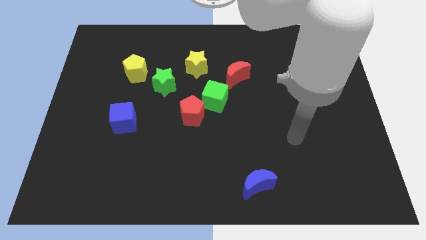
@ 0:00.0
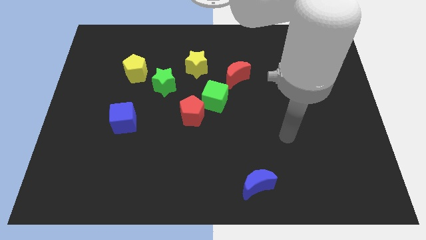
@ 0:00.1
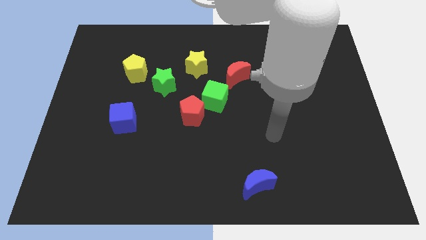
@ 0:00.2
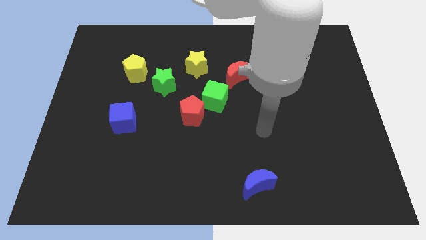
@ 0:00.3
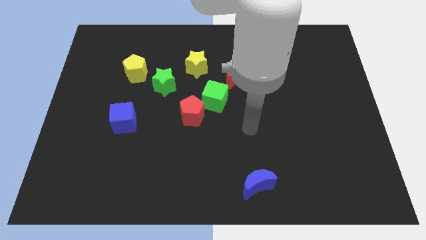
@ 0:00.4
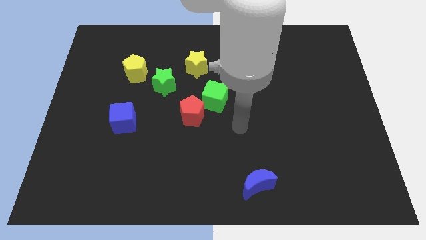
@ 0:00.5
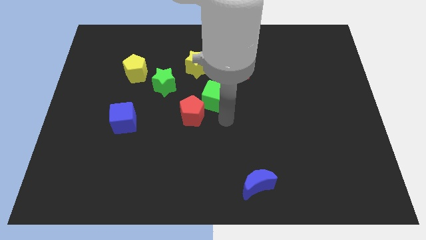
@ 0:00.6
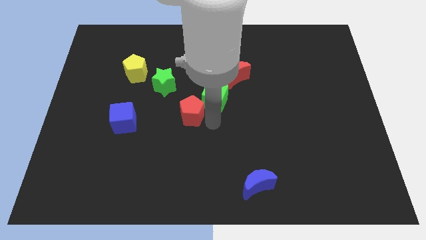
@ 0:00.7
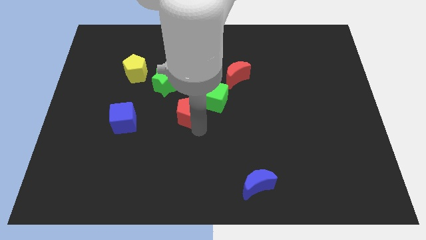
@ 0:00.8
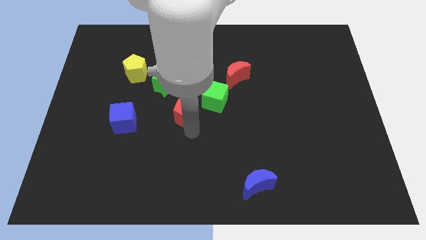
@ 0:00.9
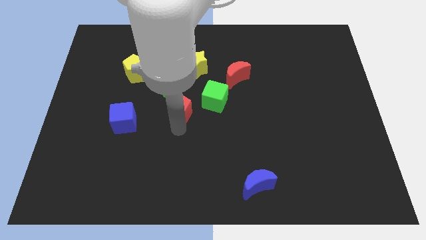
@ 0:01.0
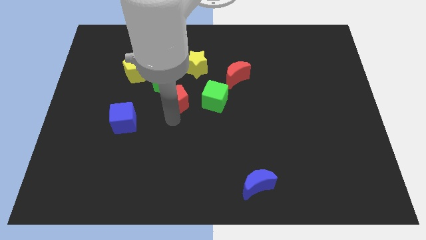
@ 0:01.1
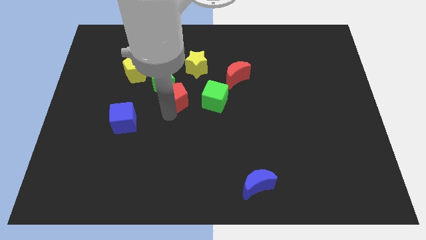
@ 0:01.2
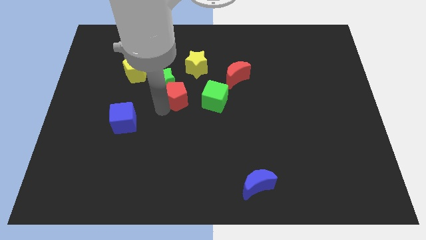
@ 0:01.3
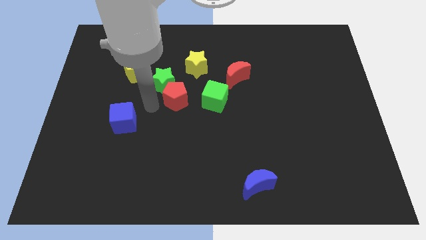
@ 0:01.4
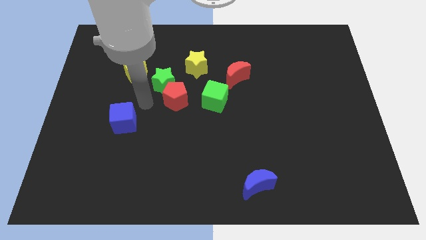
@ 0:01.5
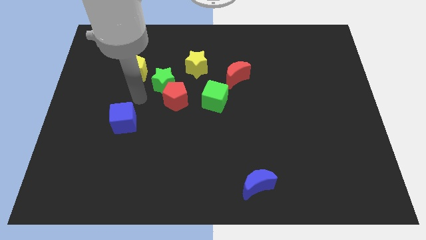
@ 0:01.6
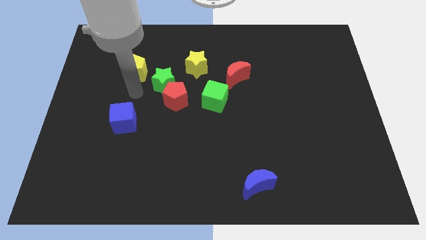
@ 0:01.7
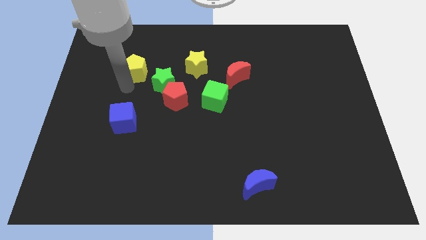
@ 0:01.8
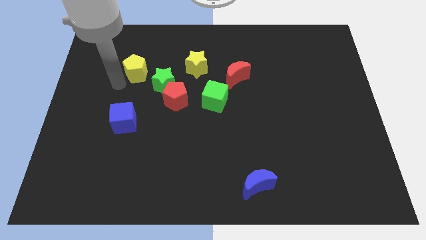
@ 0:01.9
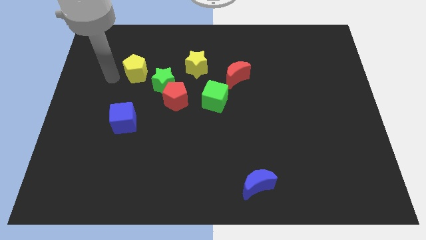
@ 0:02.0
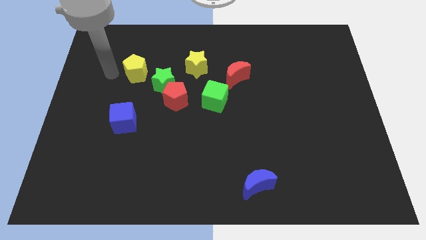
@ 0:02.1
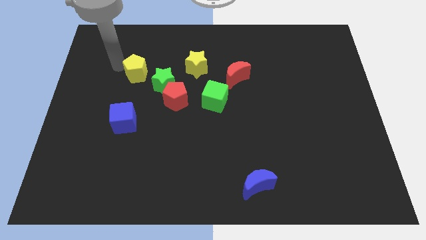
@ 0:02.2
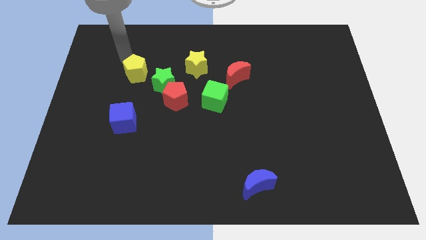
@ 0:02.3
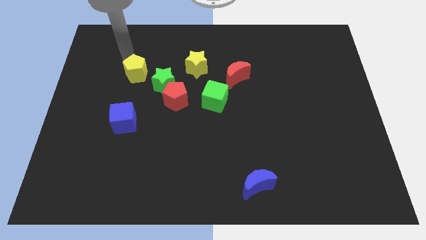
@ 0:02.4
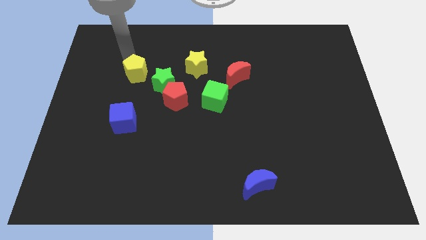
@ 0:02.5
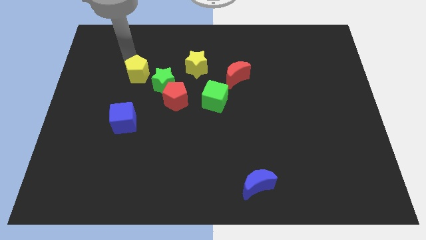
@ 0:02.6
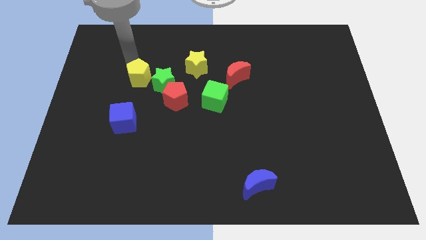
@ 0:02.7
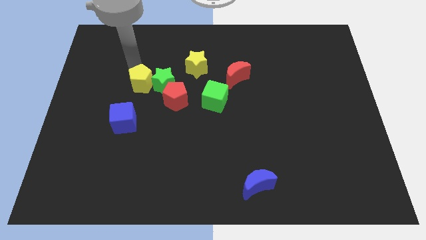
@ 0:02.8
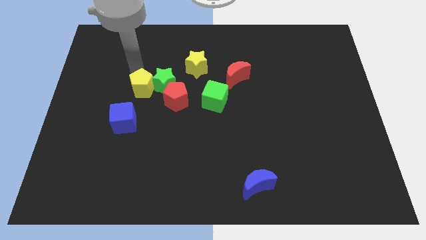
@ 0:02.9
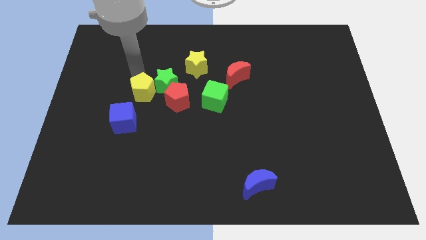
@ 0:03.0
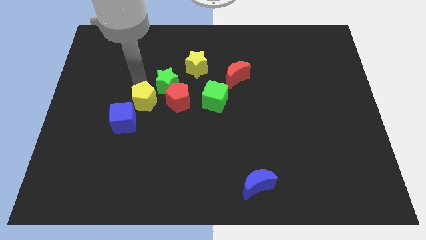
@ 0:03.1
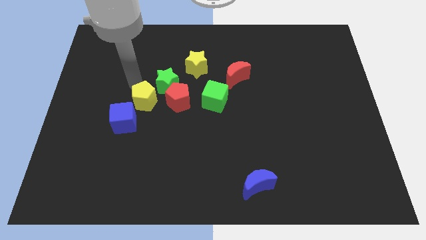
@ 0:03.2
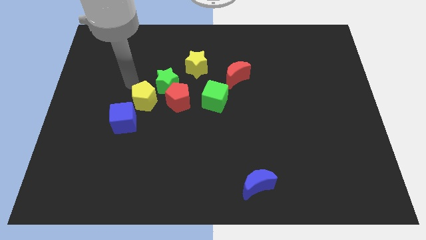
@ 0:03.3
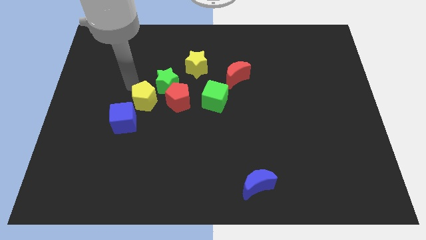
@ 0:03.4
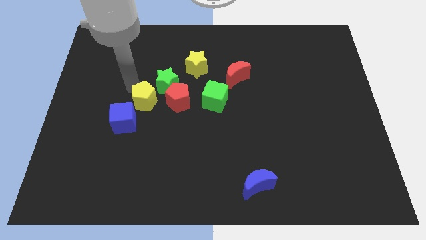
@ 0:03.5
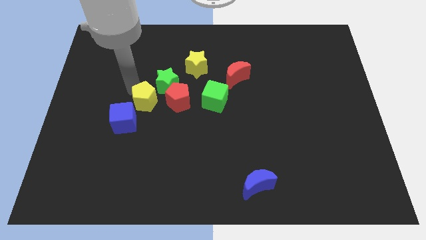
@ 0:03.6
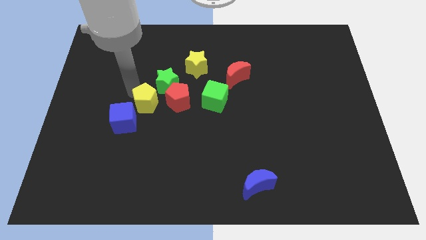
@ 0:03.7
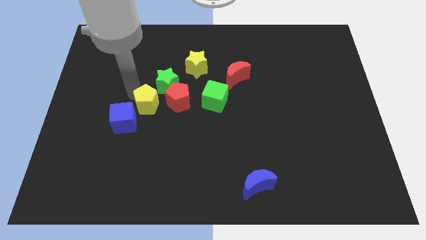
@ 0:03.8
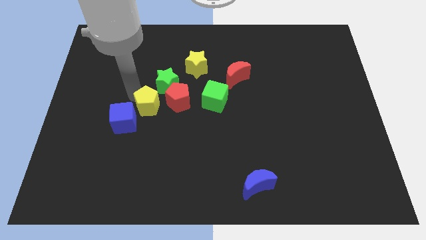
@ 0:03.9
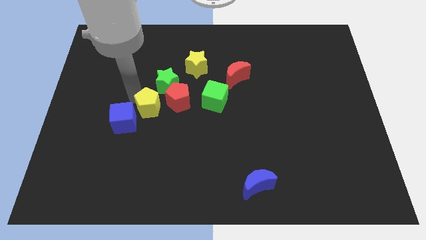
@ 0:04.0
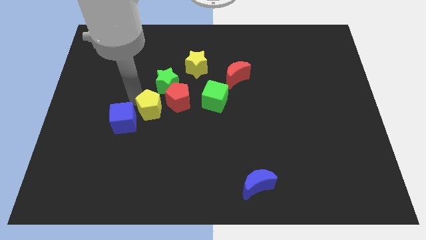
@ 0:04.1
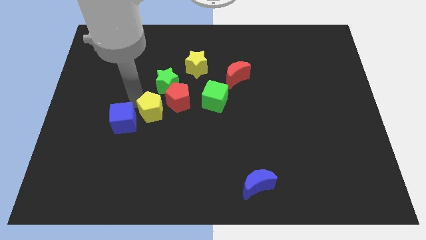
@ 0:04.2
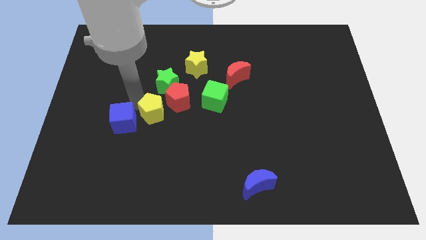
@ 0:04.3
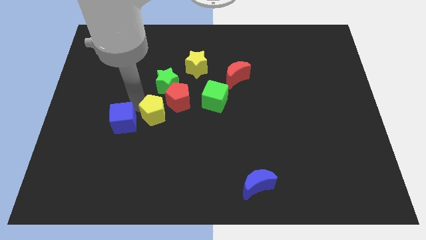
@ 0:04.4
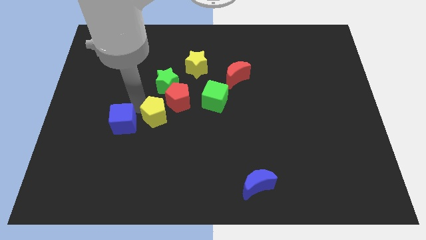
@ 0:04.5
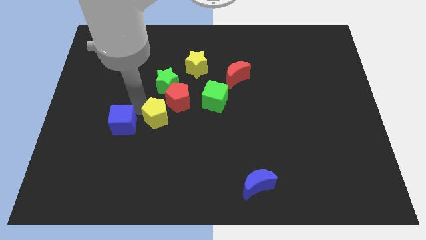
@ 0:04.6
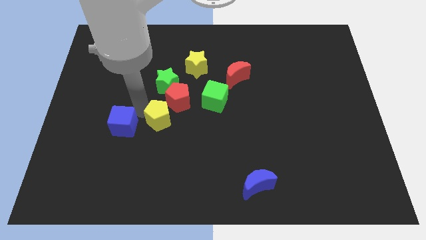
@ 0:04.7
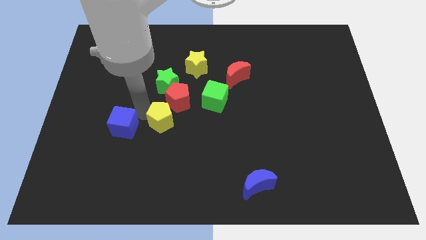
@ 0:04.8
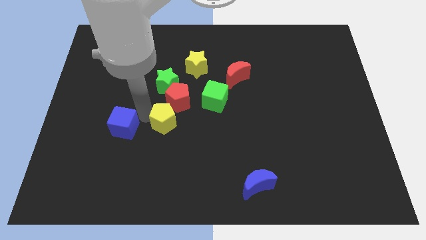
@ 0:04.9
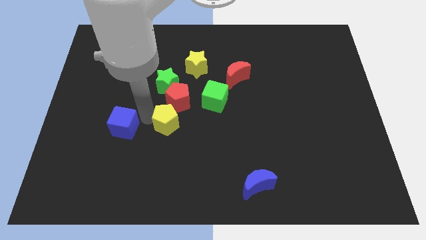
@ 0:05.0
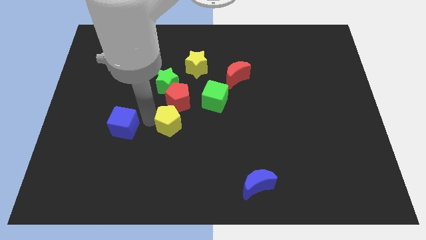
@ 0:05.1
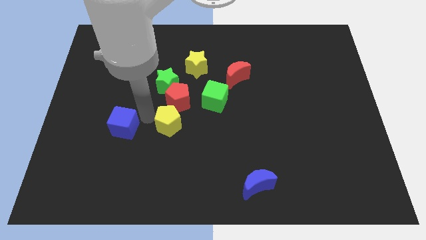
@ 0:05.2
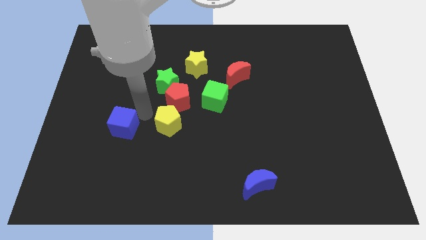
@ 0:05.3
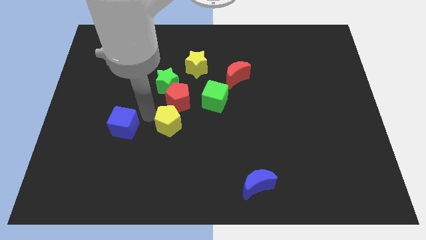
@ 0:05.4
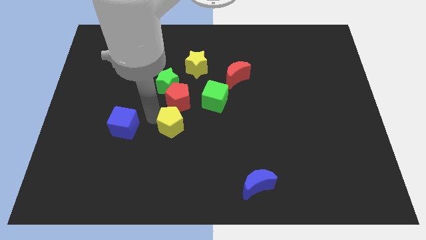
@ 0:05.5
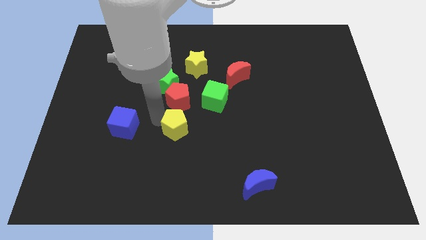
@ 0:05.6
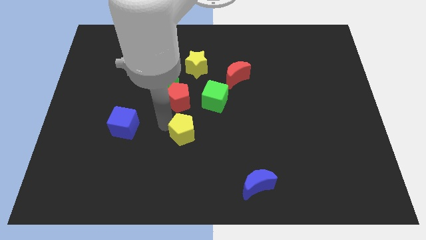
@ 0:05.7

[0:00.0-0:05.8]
move the yellow pentagon down and then right

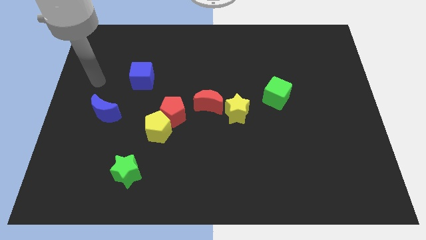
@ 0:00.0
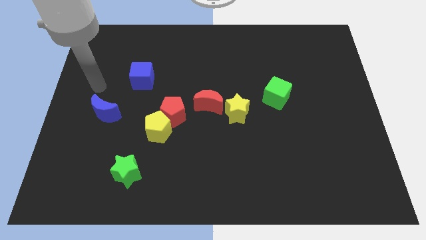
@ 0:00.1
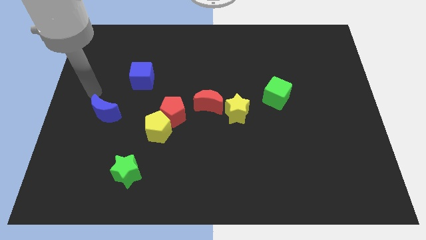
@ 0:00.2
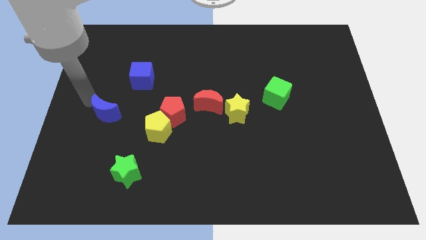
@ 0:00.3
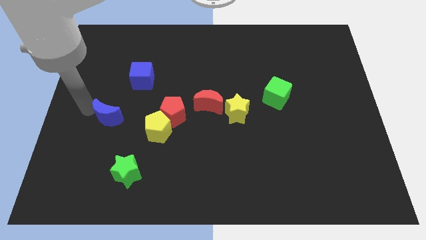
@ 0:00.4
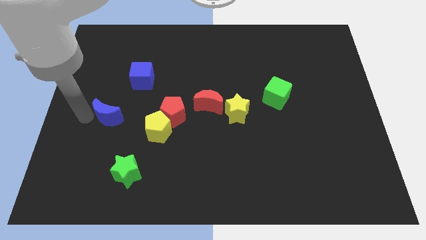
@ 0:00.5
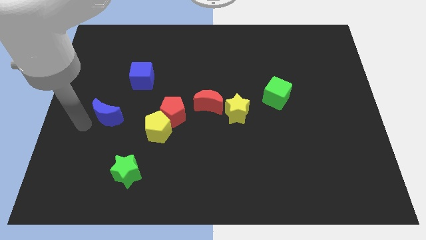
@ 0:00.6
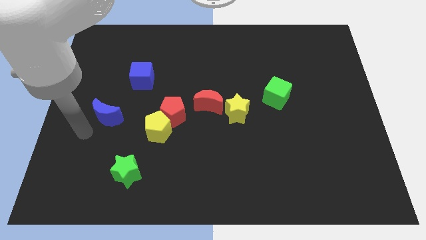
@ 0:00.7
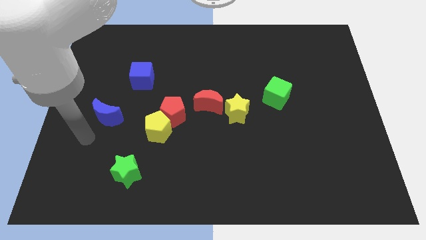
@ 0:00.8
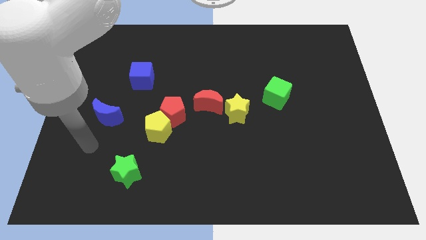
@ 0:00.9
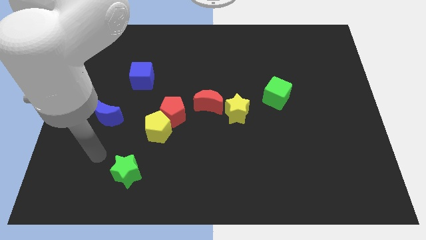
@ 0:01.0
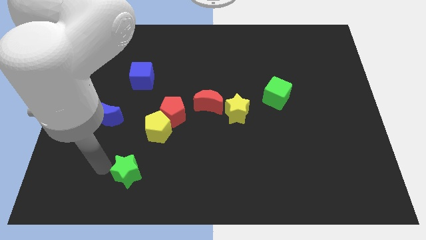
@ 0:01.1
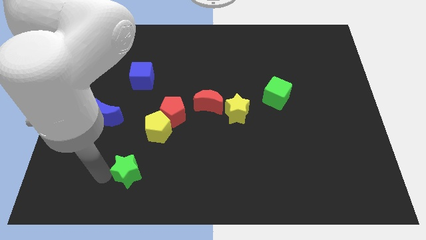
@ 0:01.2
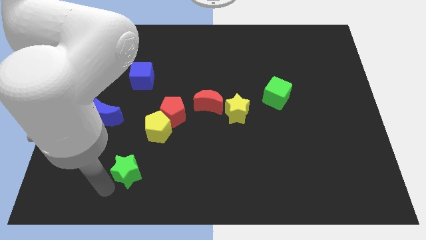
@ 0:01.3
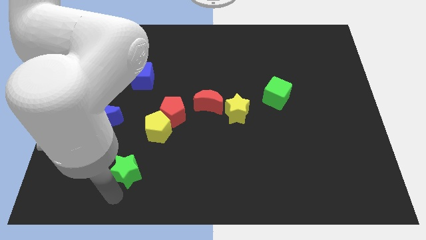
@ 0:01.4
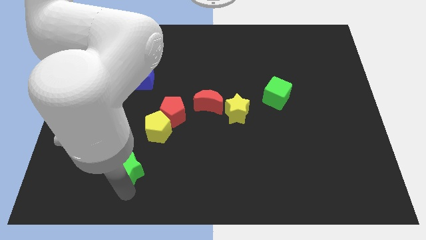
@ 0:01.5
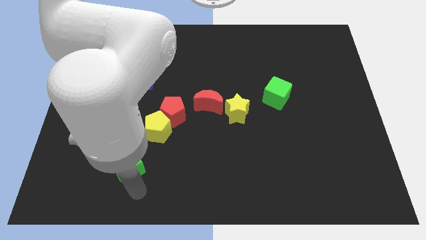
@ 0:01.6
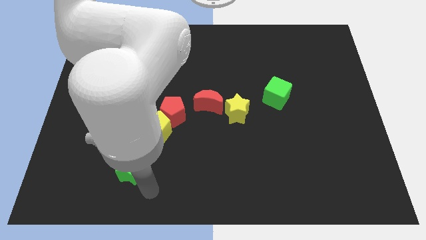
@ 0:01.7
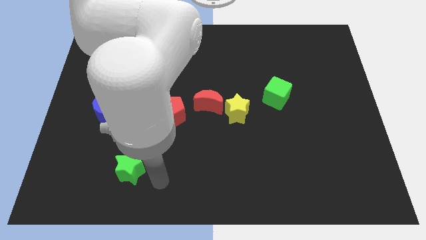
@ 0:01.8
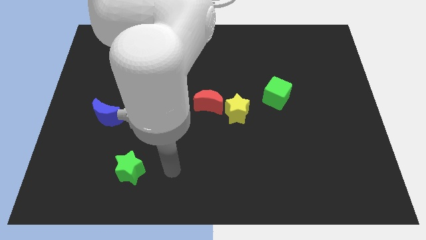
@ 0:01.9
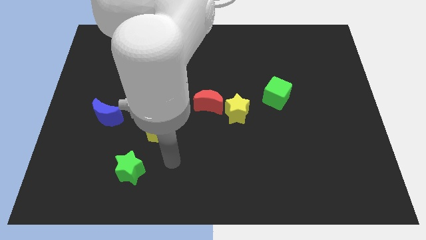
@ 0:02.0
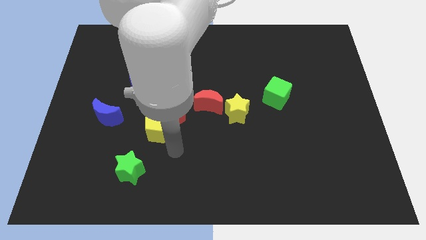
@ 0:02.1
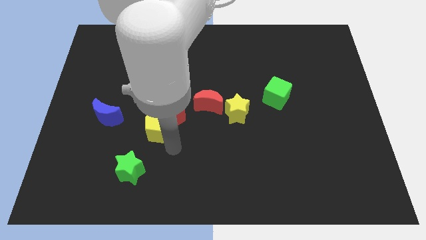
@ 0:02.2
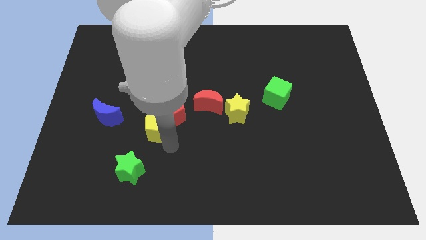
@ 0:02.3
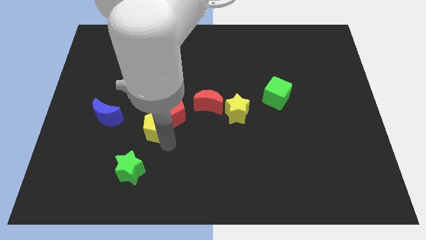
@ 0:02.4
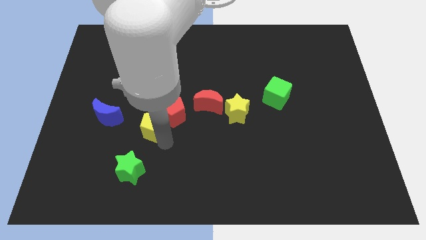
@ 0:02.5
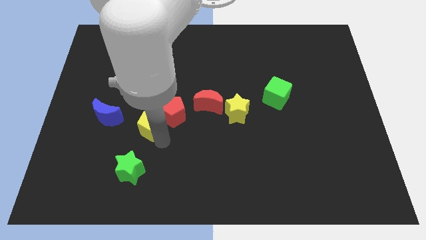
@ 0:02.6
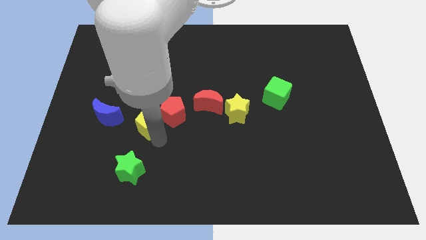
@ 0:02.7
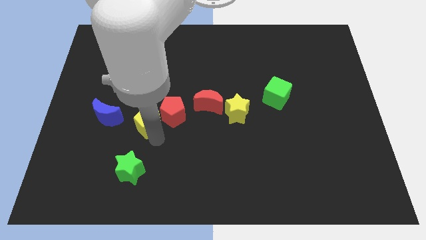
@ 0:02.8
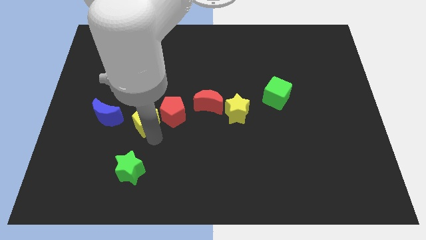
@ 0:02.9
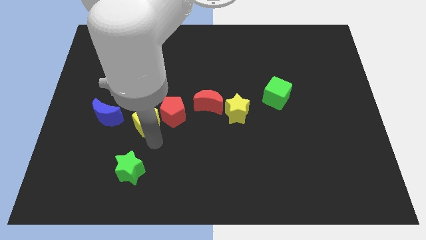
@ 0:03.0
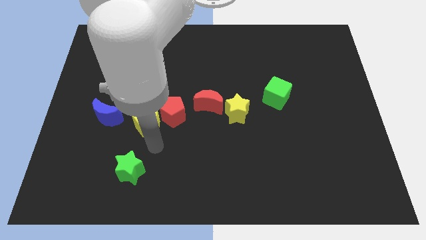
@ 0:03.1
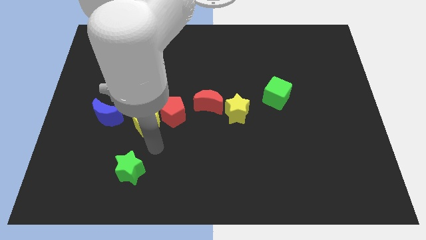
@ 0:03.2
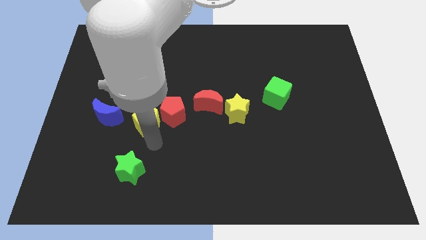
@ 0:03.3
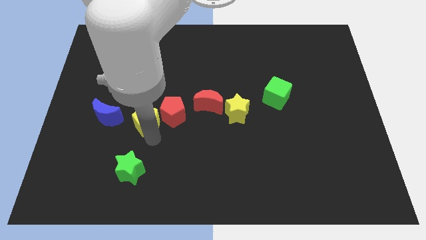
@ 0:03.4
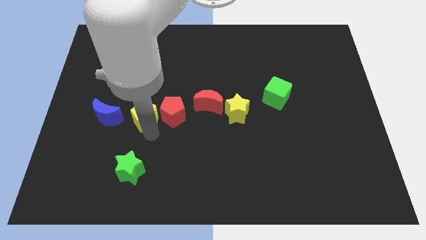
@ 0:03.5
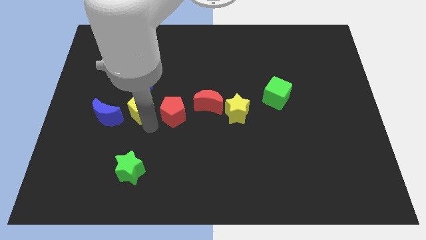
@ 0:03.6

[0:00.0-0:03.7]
push the yellow pentagon up and left diagonally a little
